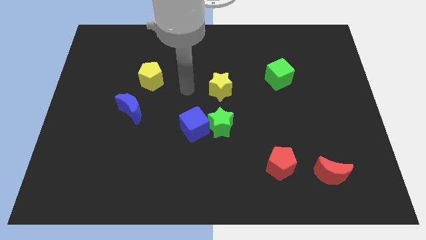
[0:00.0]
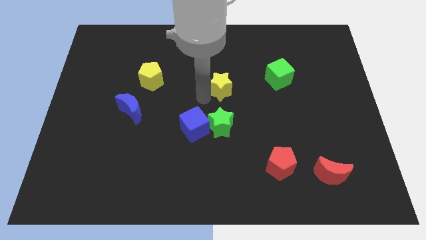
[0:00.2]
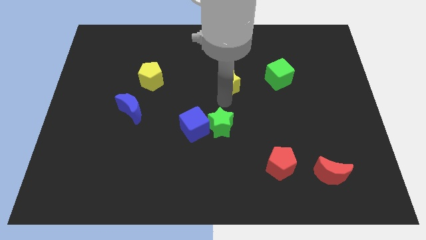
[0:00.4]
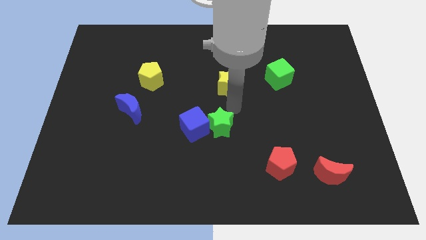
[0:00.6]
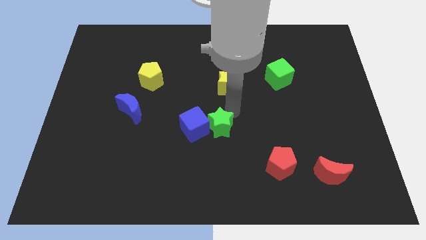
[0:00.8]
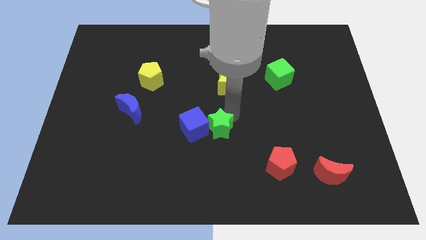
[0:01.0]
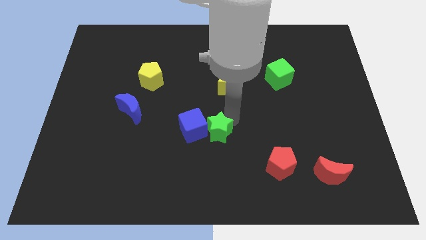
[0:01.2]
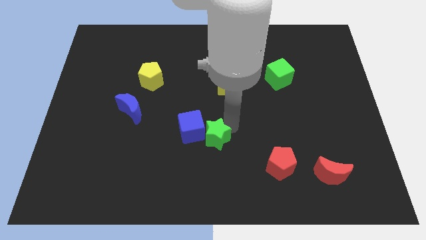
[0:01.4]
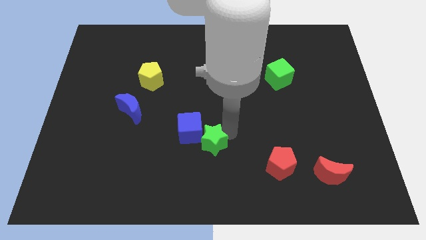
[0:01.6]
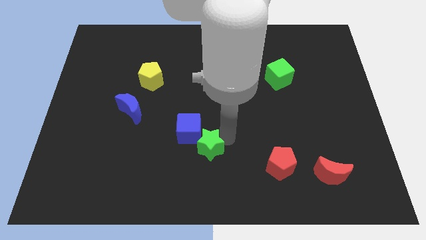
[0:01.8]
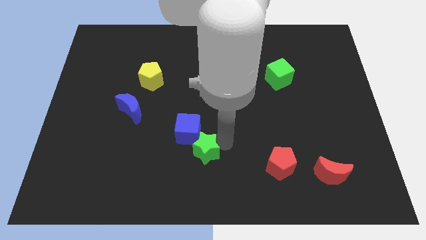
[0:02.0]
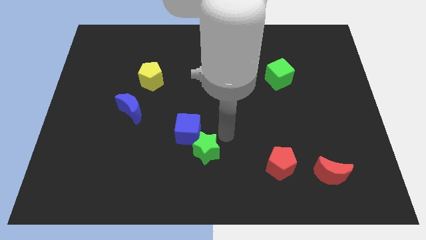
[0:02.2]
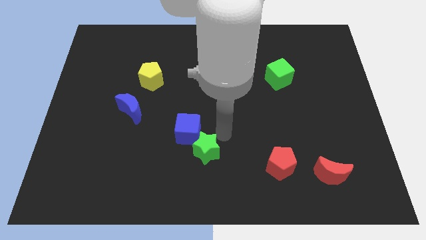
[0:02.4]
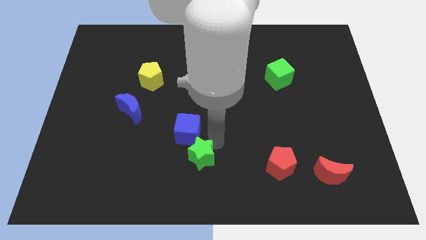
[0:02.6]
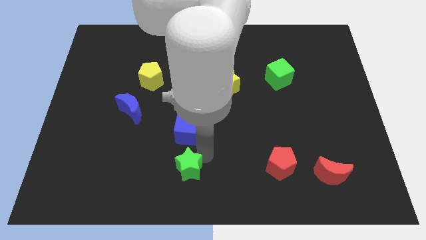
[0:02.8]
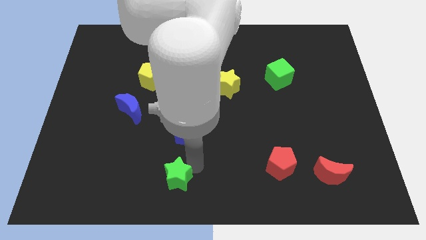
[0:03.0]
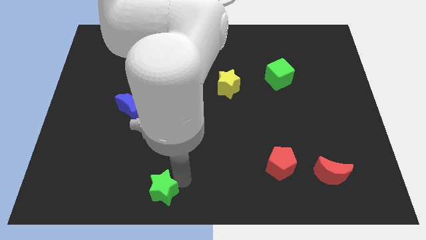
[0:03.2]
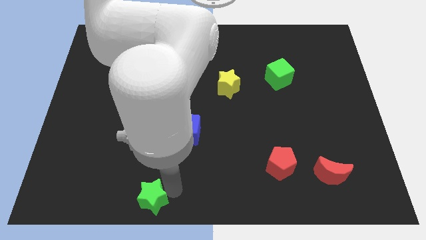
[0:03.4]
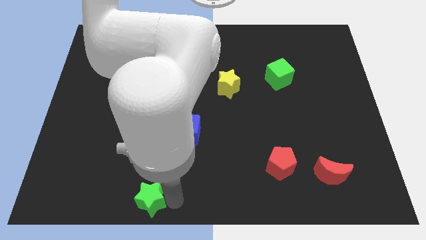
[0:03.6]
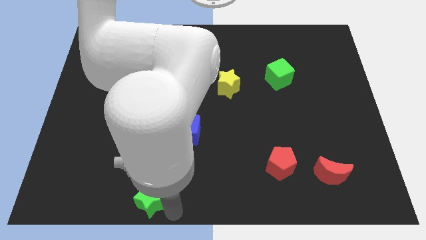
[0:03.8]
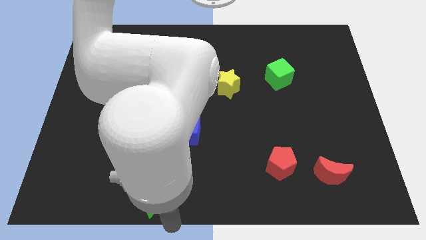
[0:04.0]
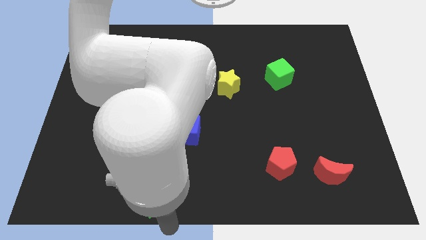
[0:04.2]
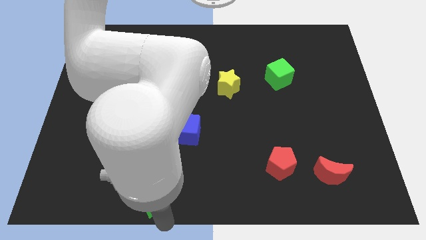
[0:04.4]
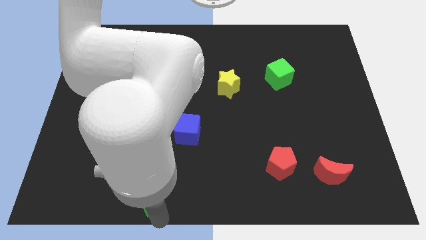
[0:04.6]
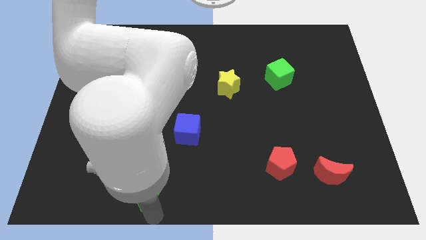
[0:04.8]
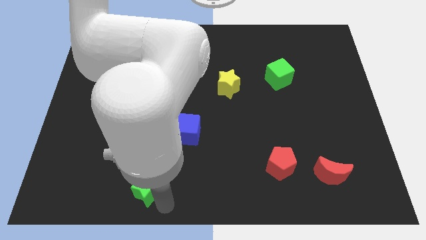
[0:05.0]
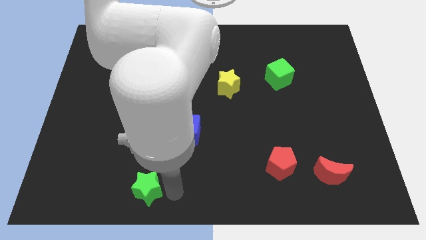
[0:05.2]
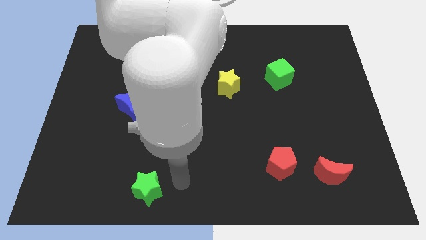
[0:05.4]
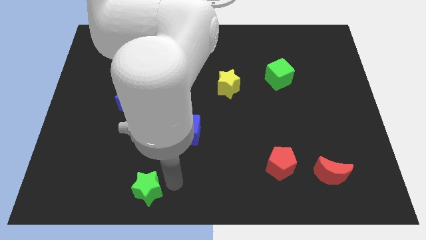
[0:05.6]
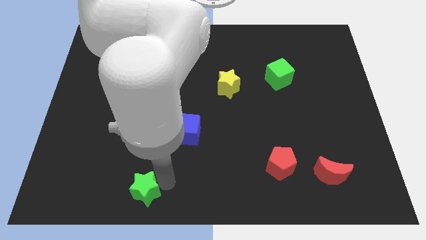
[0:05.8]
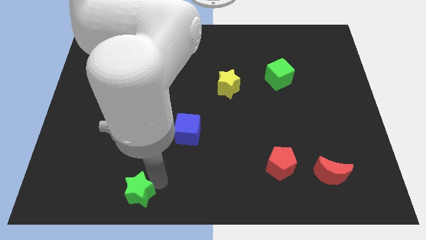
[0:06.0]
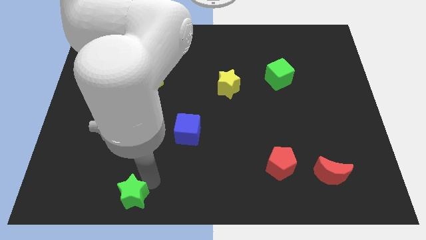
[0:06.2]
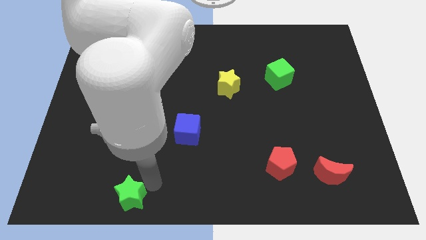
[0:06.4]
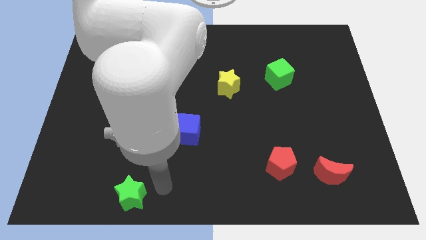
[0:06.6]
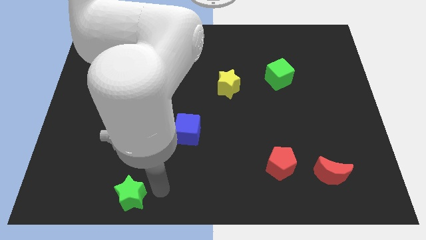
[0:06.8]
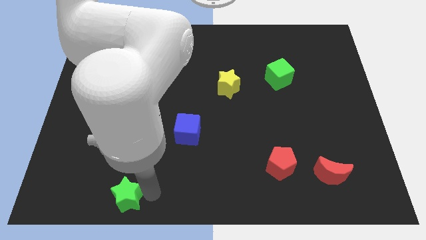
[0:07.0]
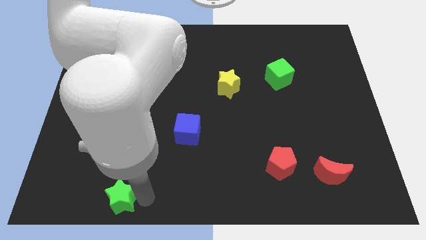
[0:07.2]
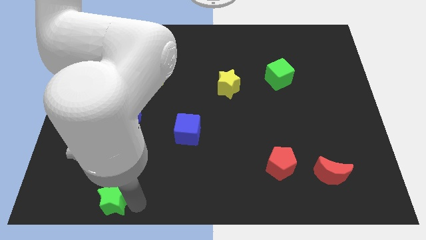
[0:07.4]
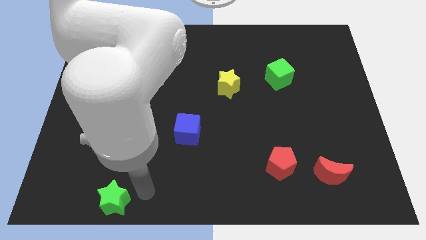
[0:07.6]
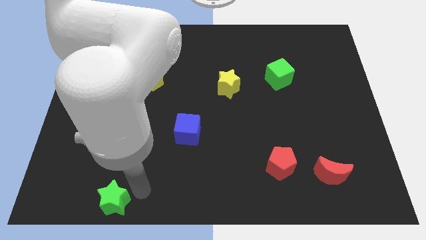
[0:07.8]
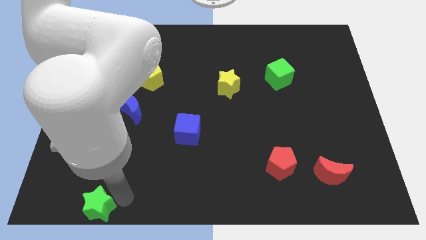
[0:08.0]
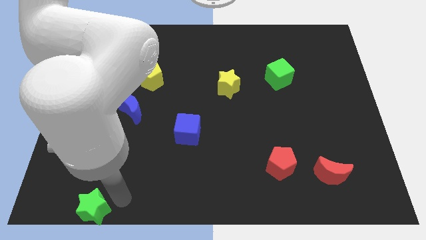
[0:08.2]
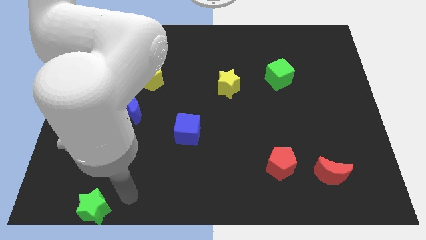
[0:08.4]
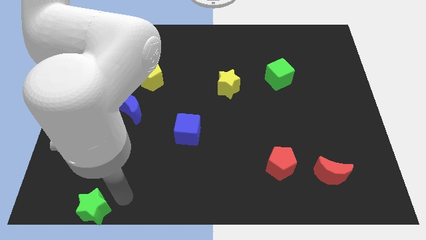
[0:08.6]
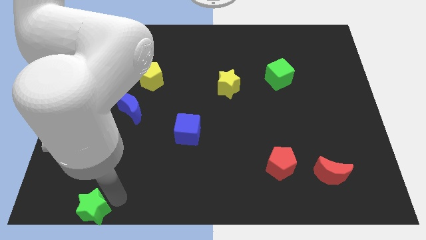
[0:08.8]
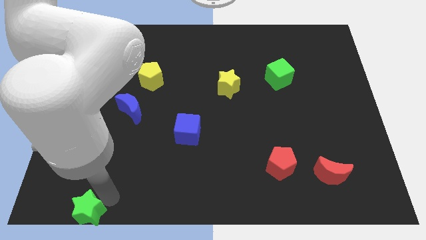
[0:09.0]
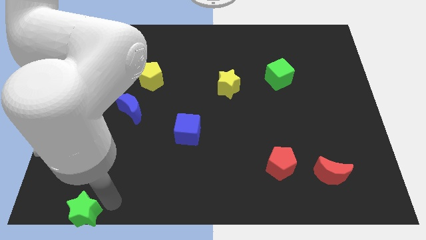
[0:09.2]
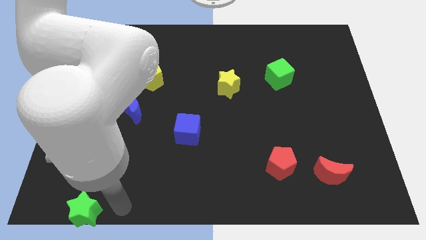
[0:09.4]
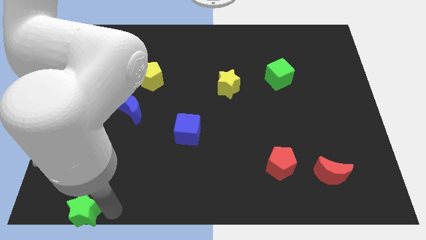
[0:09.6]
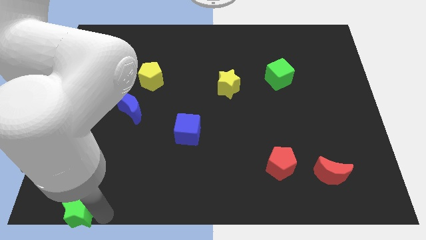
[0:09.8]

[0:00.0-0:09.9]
slide the green star to the bottom left corner

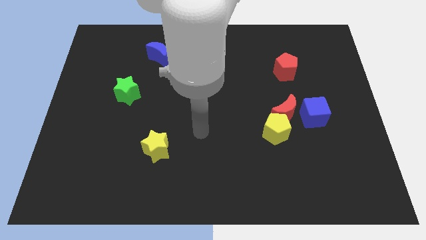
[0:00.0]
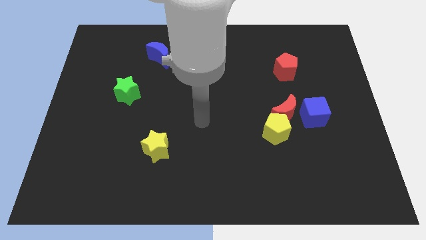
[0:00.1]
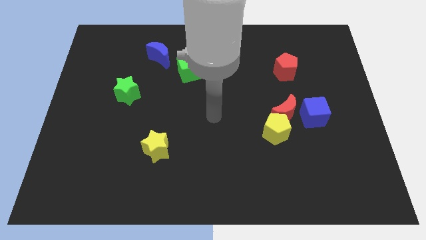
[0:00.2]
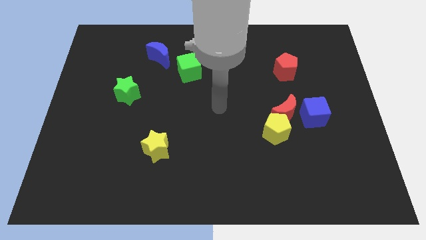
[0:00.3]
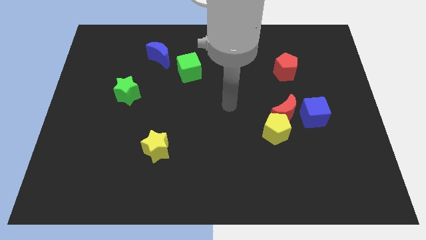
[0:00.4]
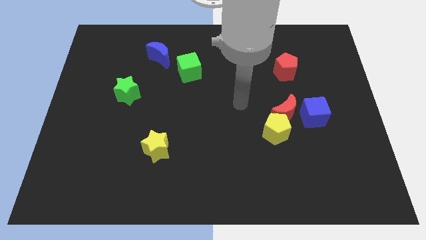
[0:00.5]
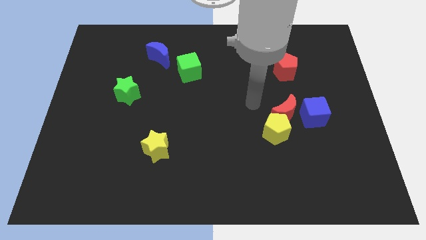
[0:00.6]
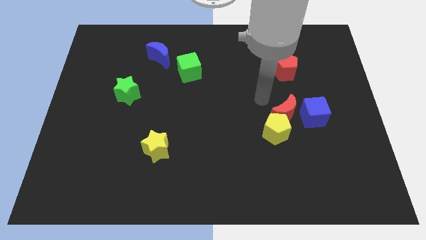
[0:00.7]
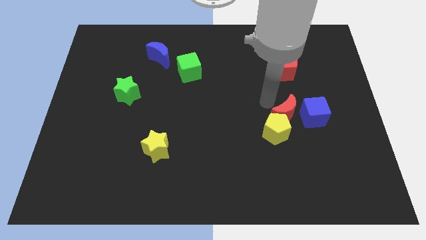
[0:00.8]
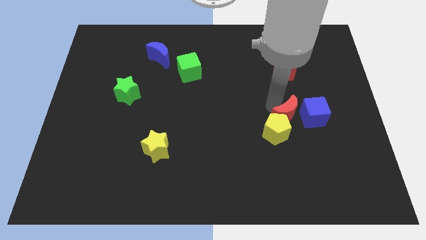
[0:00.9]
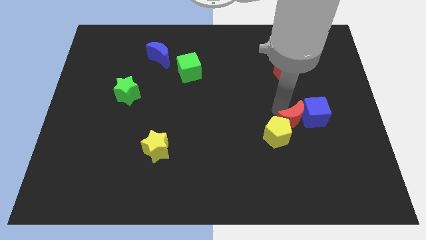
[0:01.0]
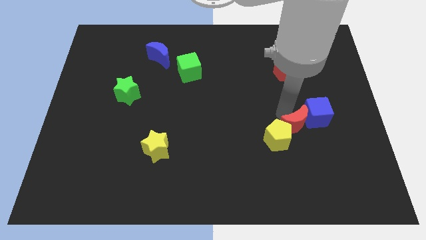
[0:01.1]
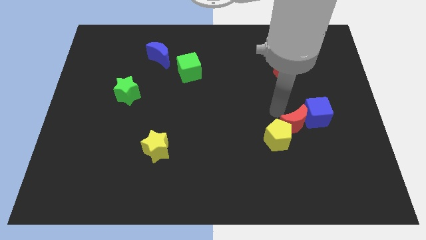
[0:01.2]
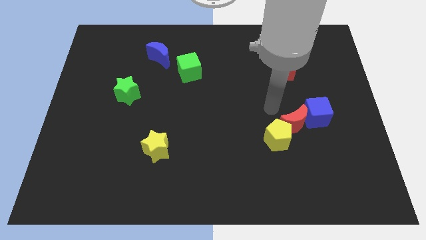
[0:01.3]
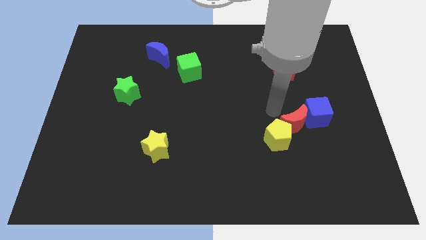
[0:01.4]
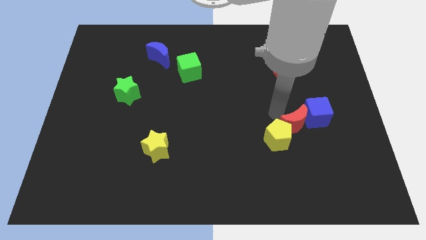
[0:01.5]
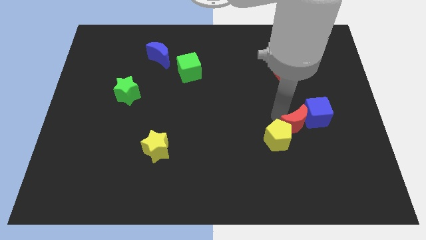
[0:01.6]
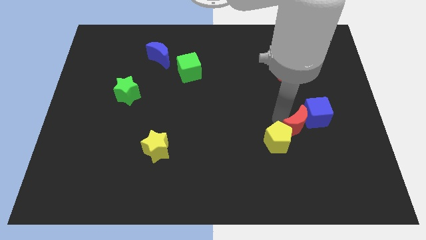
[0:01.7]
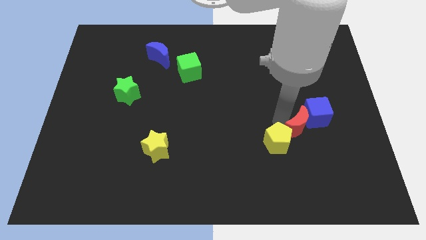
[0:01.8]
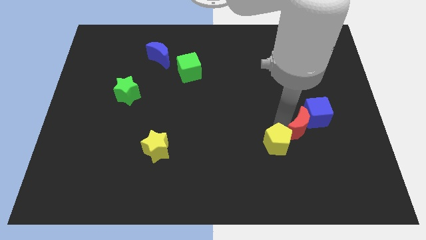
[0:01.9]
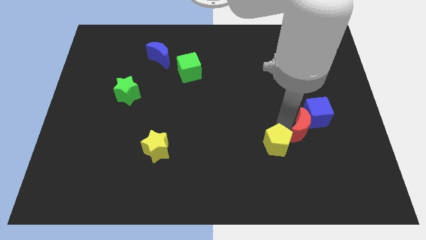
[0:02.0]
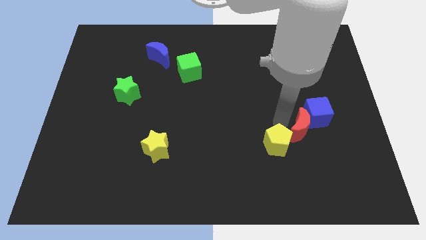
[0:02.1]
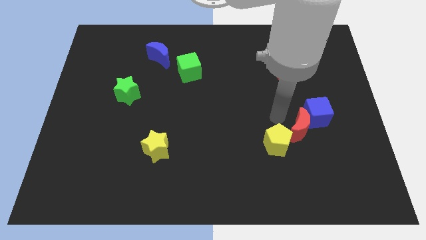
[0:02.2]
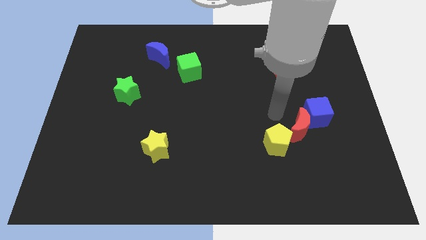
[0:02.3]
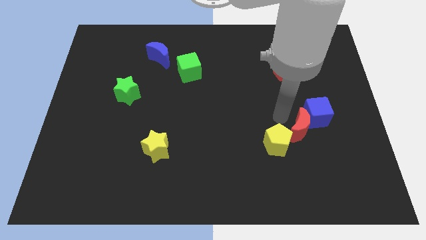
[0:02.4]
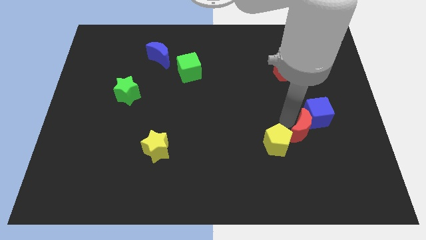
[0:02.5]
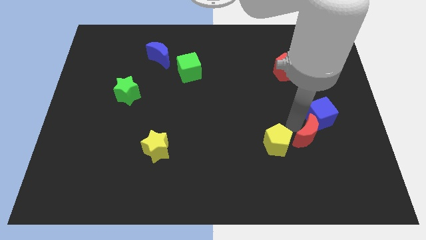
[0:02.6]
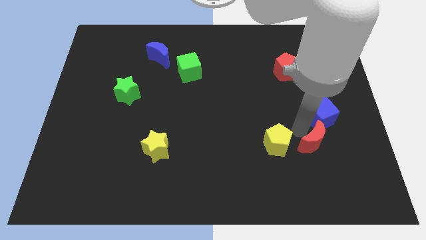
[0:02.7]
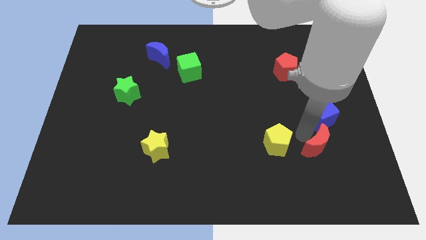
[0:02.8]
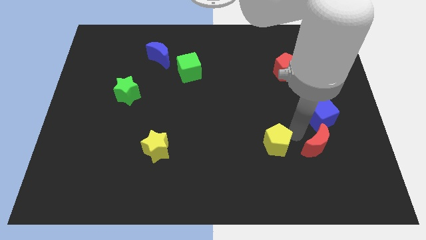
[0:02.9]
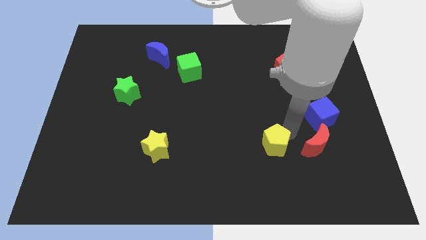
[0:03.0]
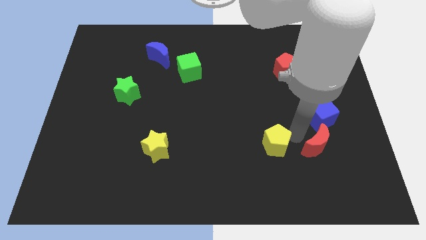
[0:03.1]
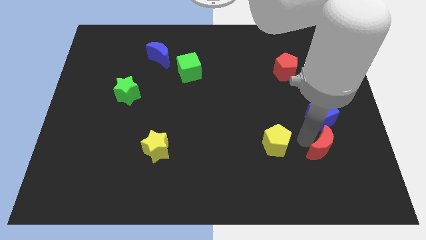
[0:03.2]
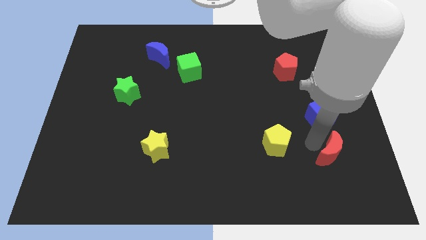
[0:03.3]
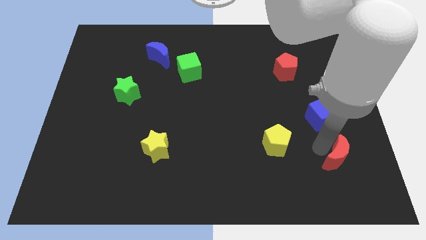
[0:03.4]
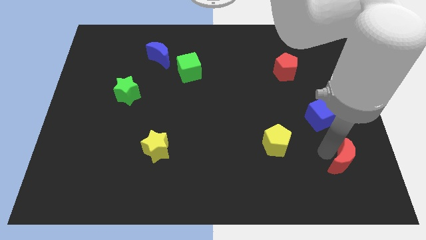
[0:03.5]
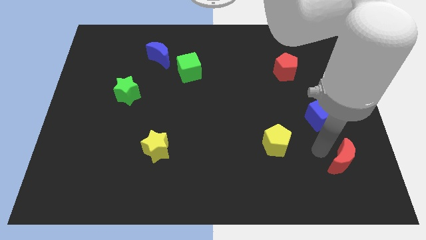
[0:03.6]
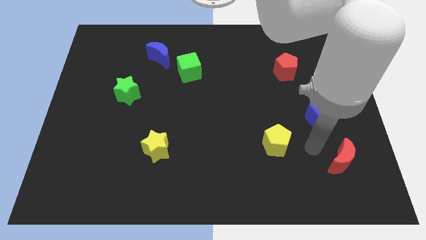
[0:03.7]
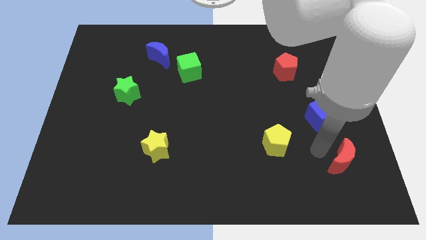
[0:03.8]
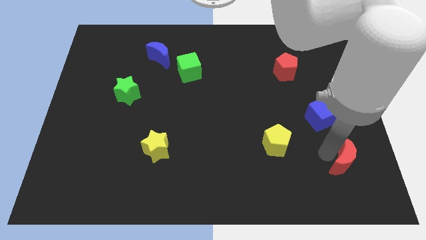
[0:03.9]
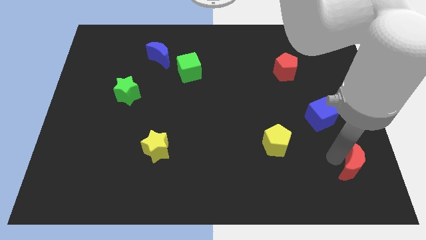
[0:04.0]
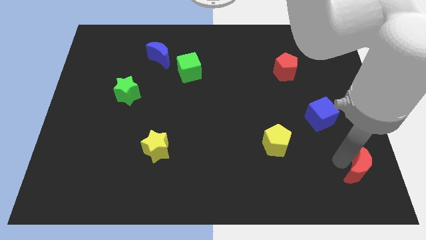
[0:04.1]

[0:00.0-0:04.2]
push the red moon to the lower right corner
